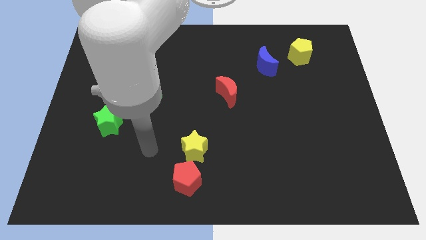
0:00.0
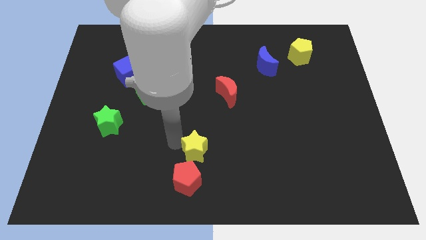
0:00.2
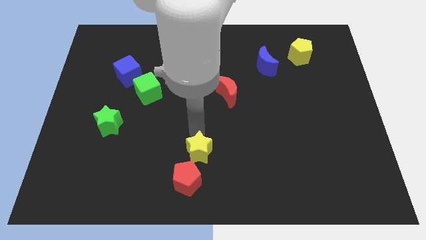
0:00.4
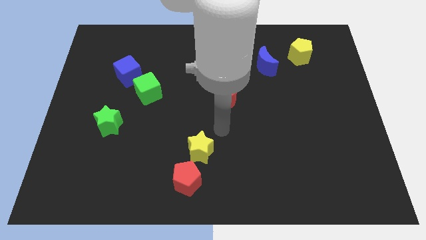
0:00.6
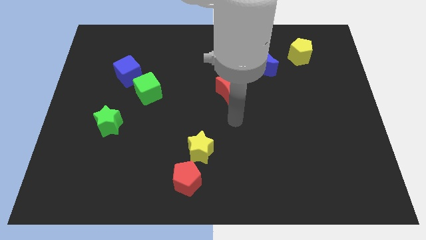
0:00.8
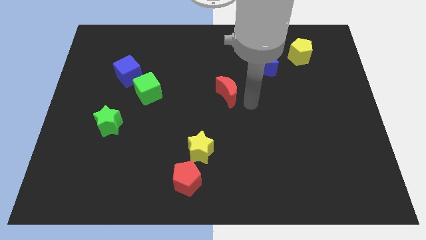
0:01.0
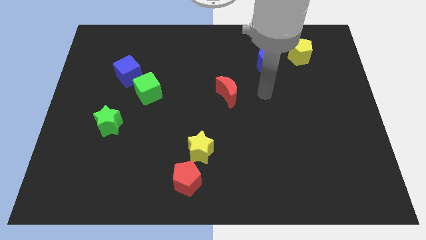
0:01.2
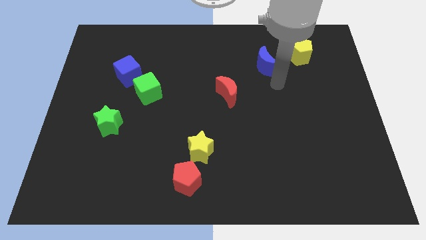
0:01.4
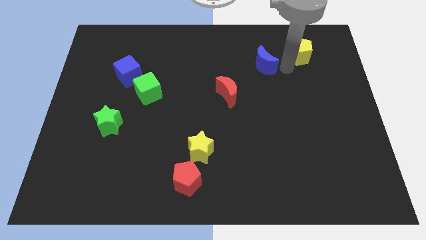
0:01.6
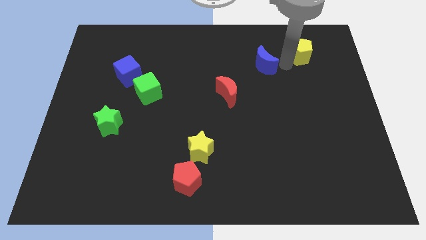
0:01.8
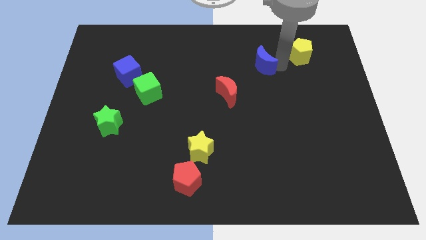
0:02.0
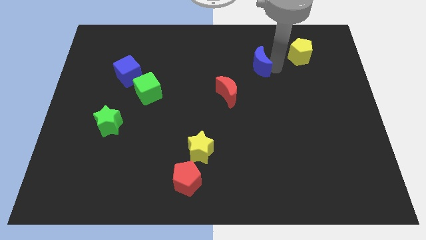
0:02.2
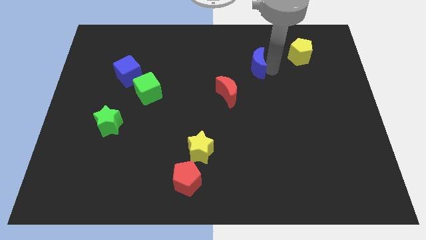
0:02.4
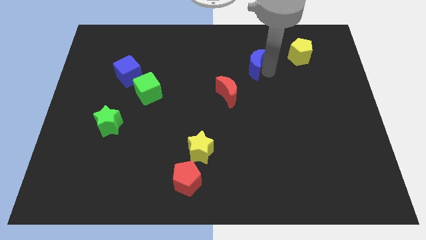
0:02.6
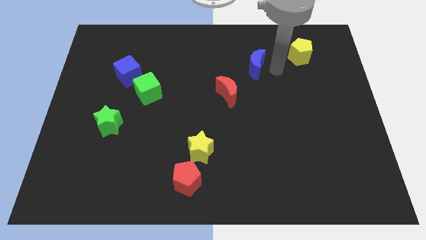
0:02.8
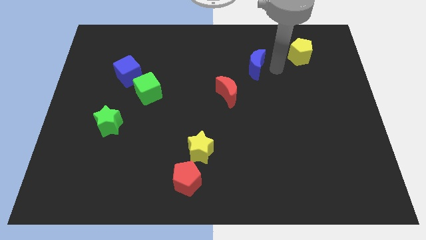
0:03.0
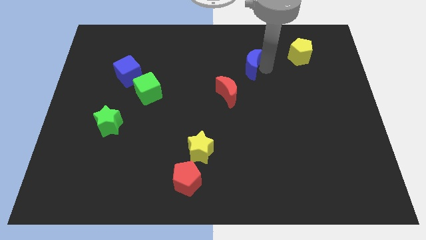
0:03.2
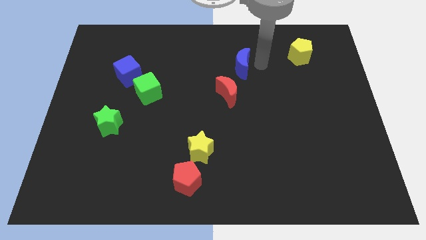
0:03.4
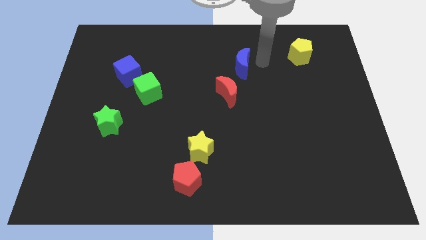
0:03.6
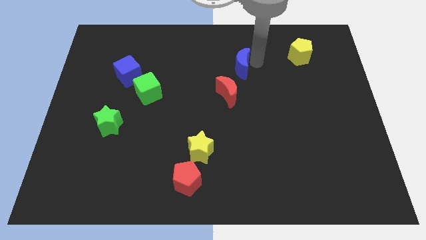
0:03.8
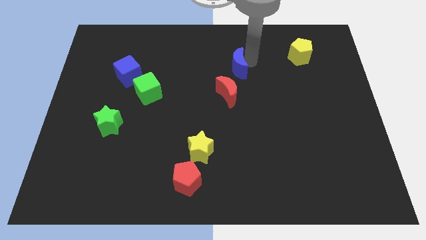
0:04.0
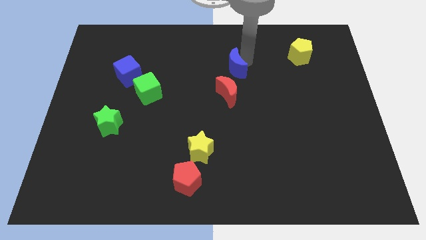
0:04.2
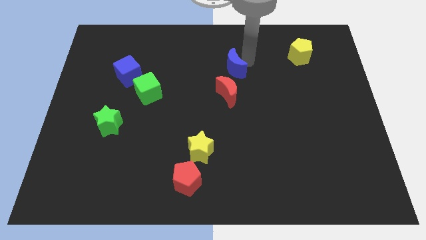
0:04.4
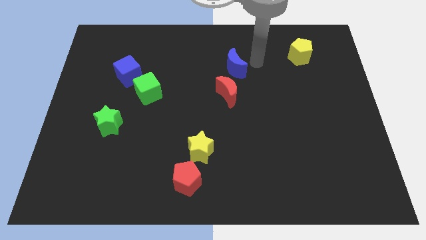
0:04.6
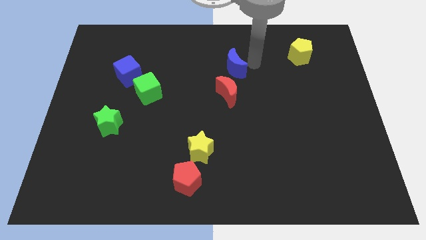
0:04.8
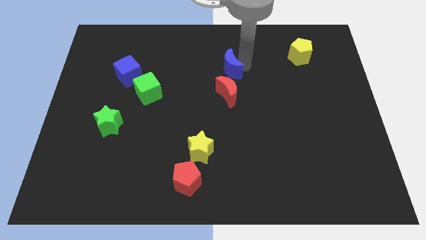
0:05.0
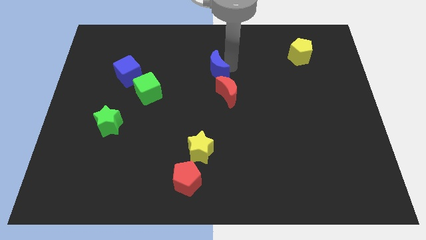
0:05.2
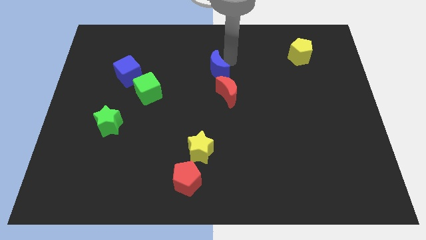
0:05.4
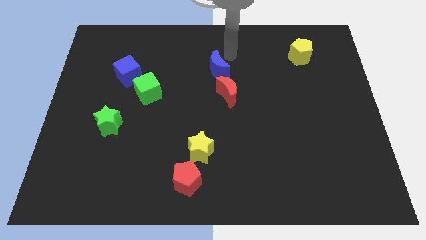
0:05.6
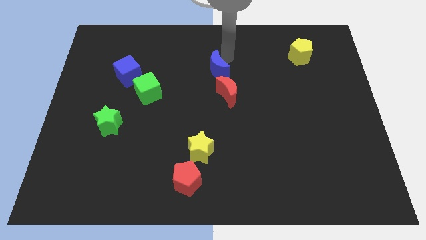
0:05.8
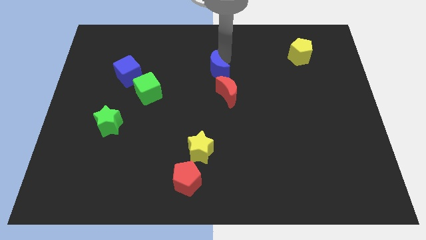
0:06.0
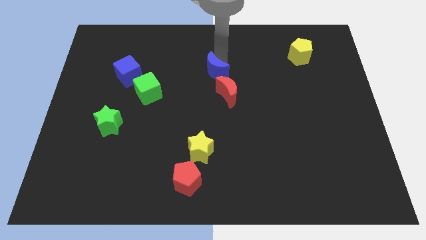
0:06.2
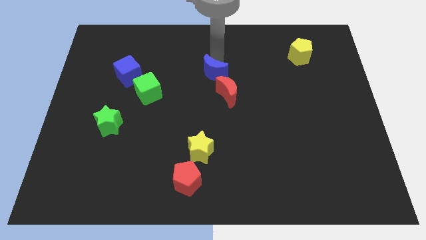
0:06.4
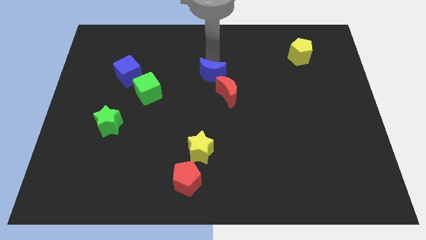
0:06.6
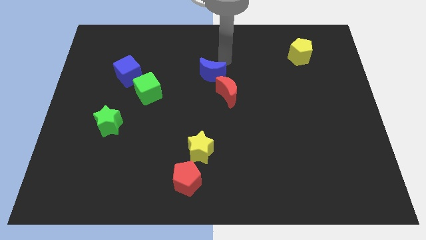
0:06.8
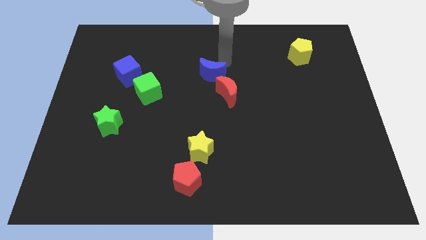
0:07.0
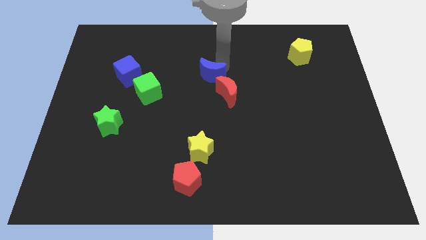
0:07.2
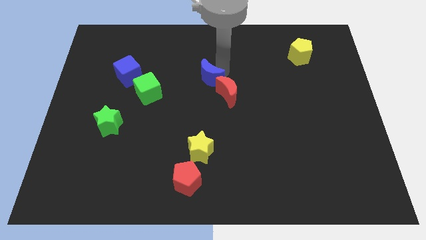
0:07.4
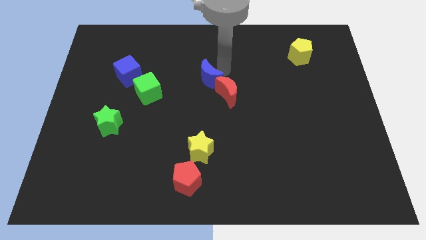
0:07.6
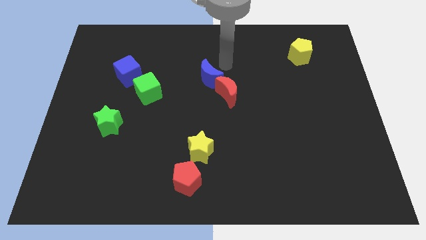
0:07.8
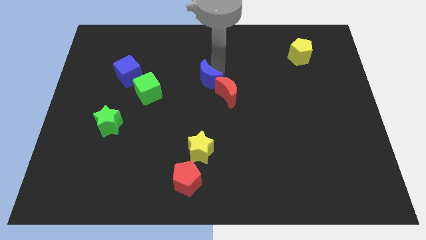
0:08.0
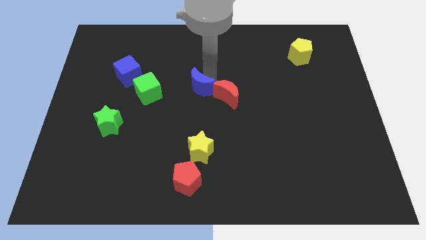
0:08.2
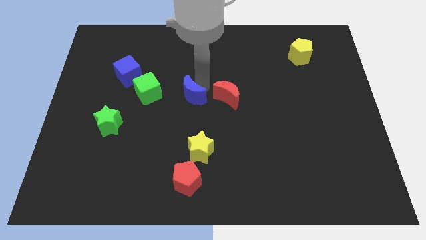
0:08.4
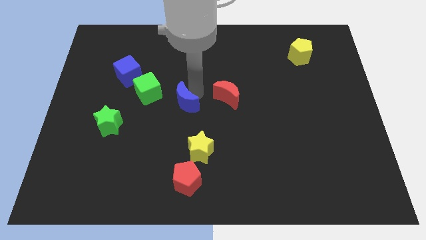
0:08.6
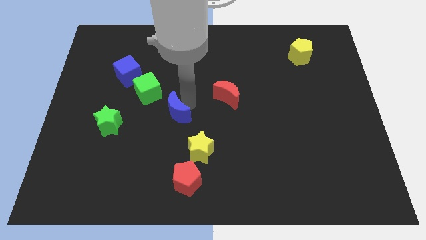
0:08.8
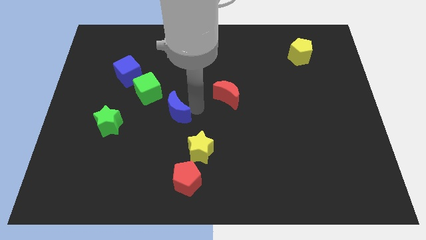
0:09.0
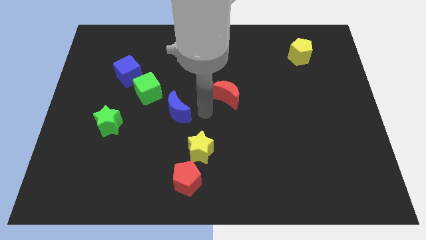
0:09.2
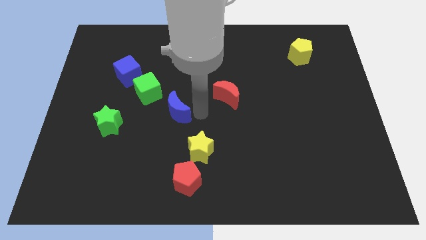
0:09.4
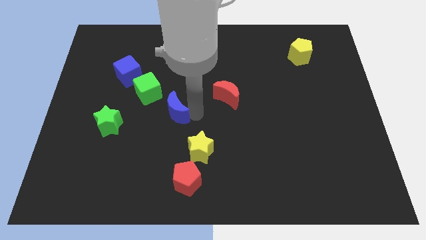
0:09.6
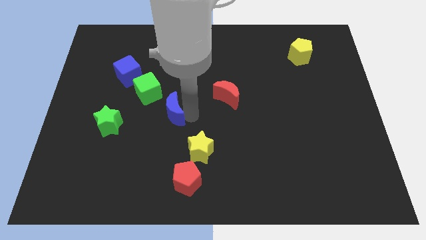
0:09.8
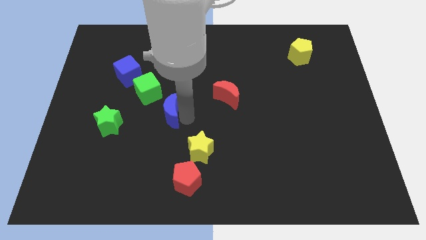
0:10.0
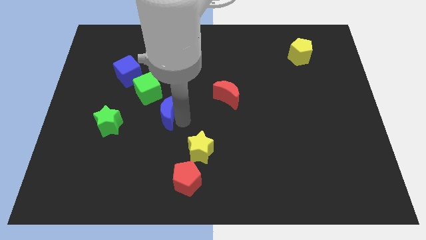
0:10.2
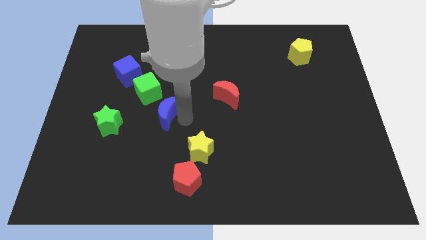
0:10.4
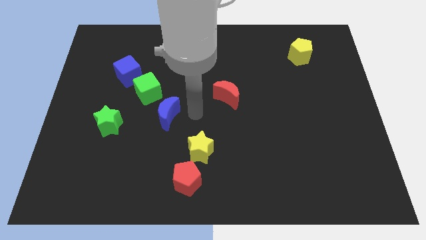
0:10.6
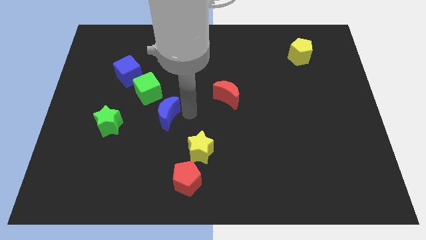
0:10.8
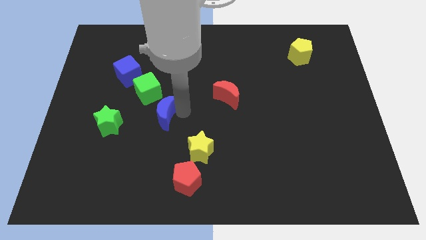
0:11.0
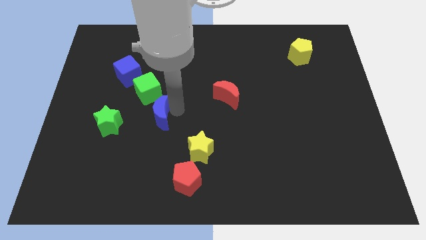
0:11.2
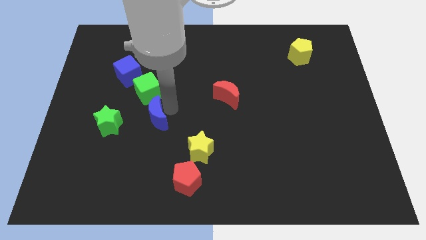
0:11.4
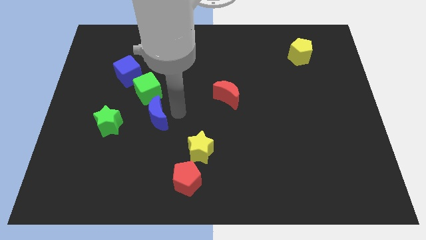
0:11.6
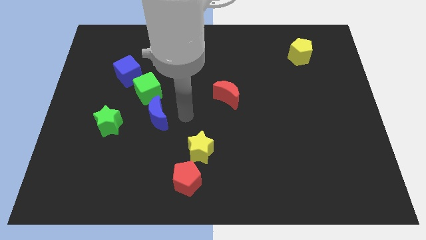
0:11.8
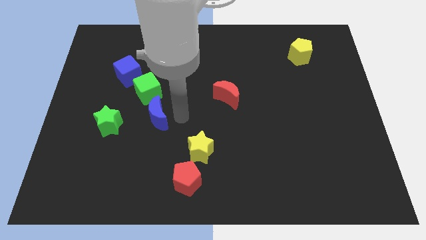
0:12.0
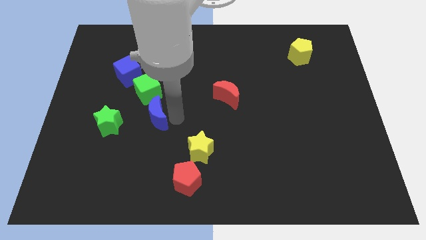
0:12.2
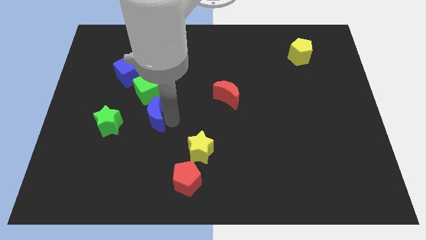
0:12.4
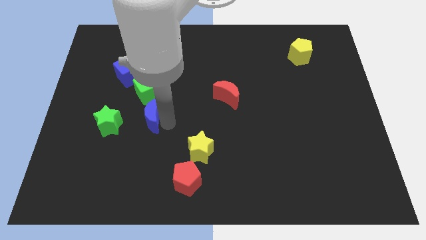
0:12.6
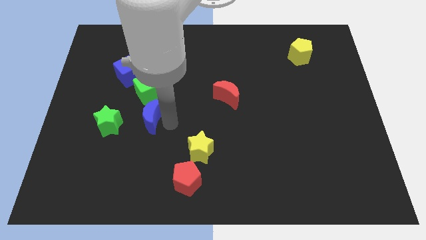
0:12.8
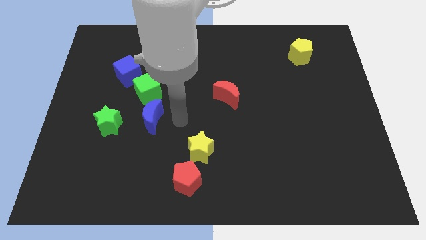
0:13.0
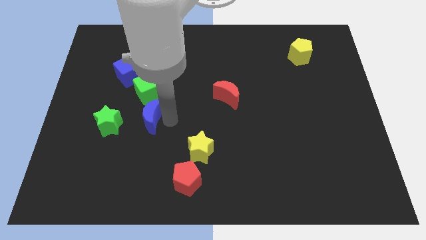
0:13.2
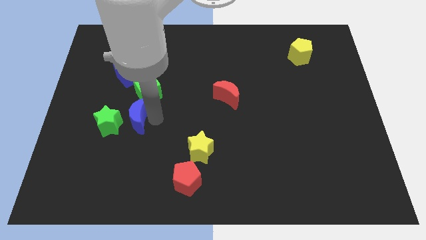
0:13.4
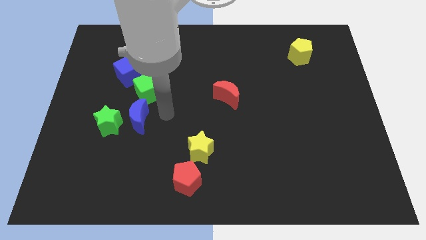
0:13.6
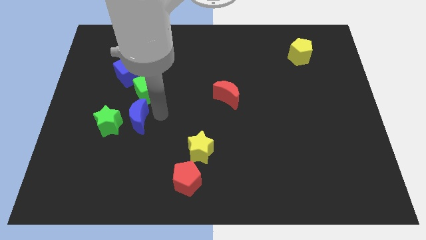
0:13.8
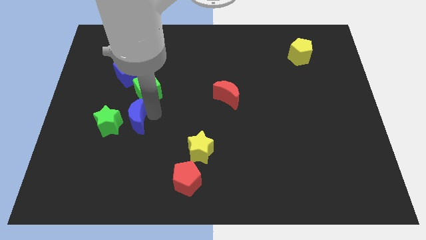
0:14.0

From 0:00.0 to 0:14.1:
put the blue moon close to the green star

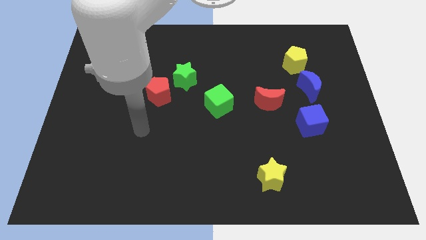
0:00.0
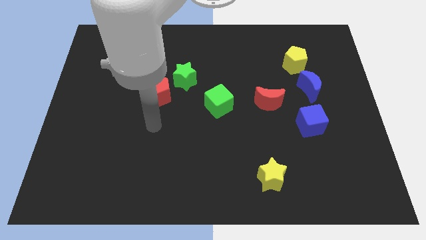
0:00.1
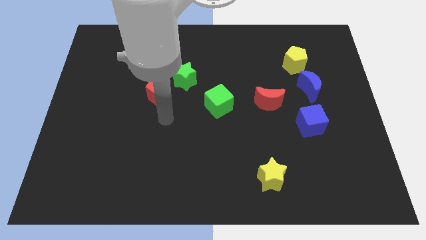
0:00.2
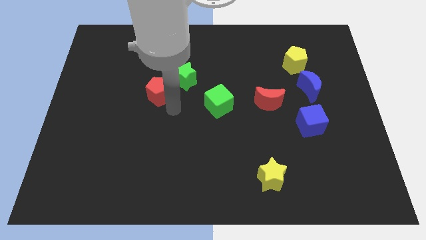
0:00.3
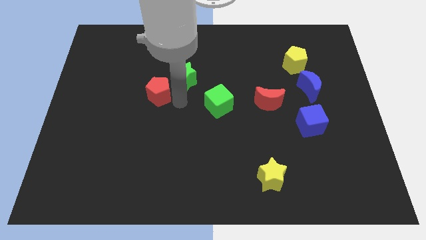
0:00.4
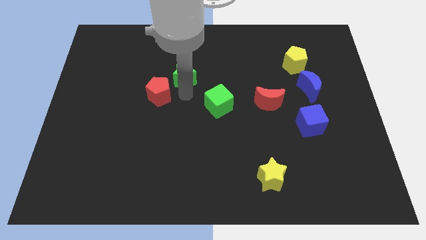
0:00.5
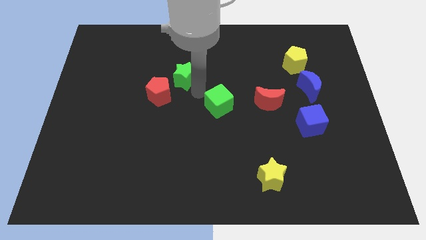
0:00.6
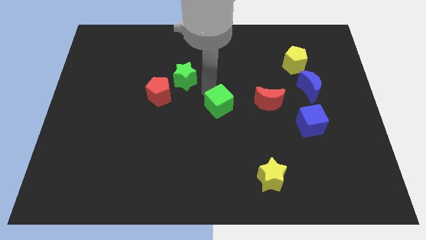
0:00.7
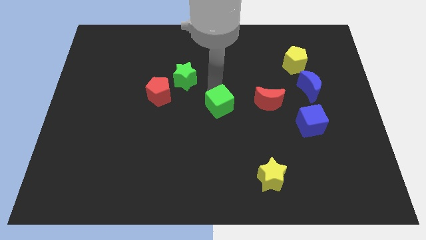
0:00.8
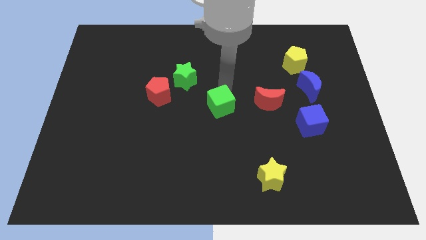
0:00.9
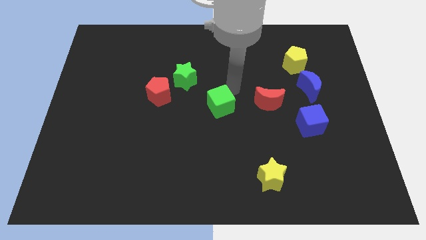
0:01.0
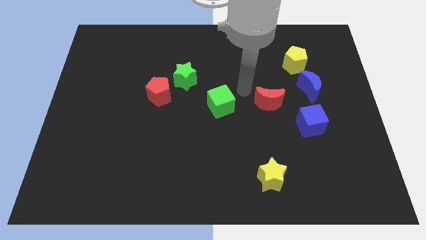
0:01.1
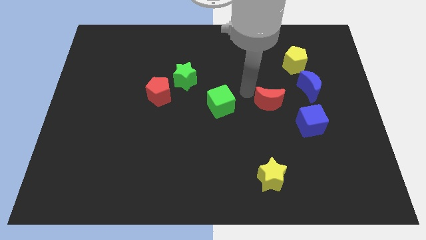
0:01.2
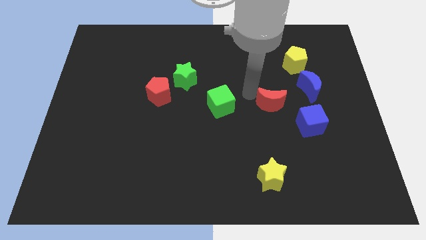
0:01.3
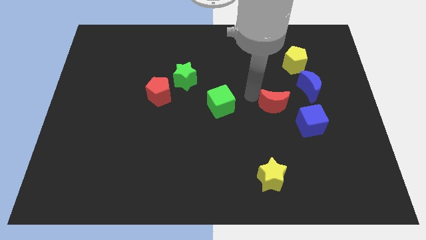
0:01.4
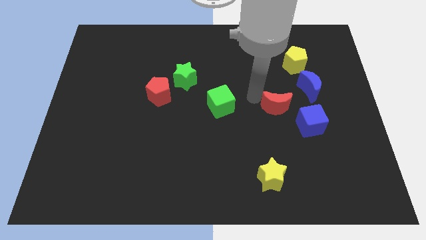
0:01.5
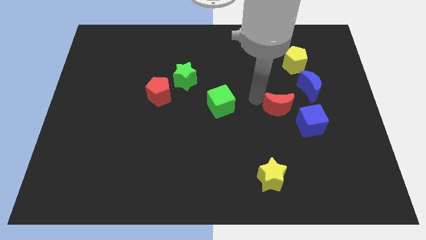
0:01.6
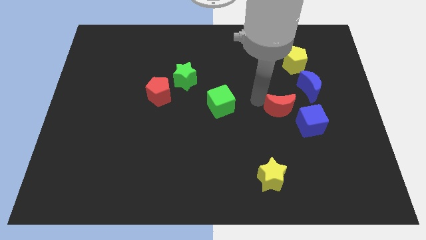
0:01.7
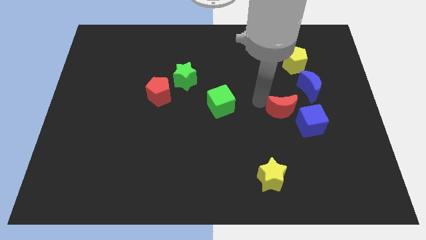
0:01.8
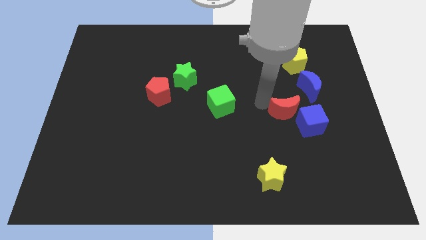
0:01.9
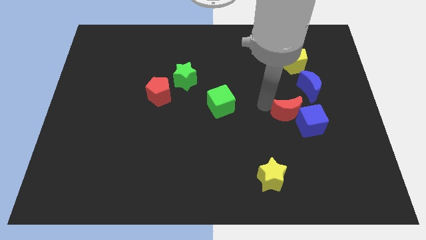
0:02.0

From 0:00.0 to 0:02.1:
push the red moon next to the blue cube
